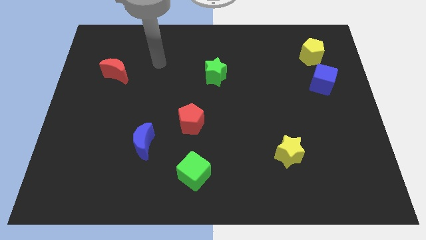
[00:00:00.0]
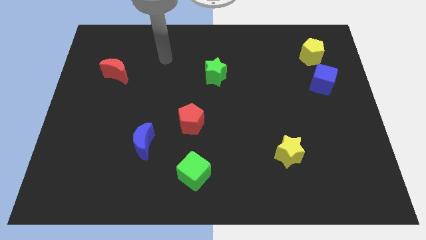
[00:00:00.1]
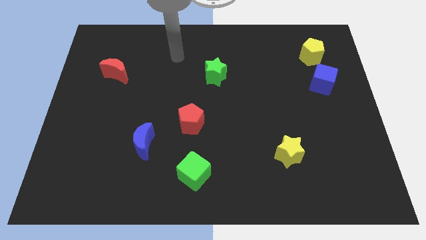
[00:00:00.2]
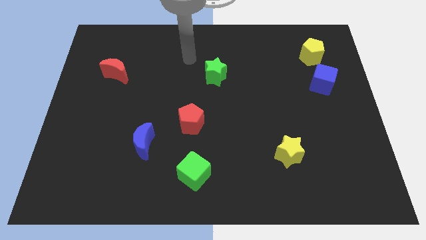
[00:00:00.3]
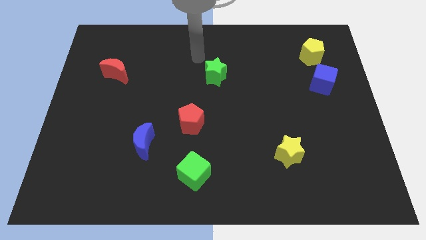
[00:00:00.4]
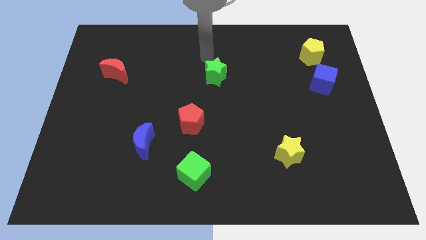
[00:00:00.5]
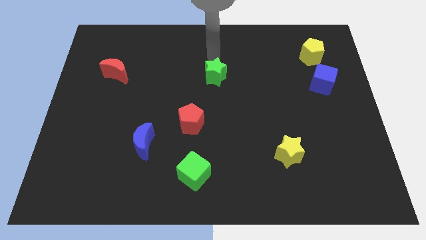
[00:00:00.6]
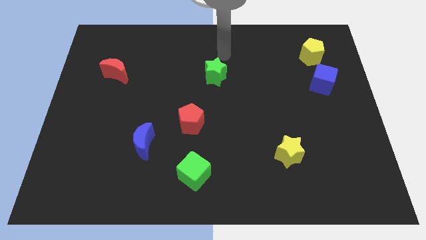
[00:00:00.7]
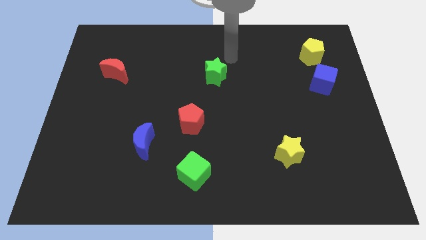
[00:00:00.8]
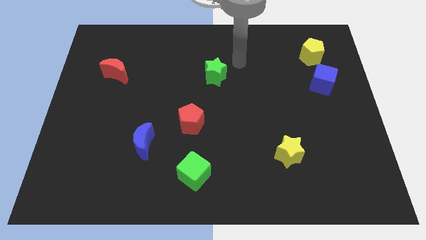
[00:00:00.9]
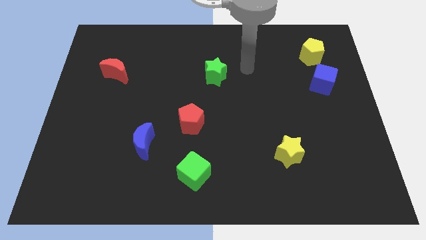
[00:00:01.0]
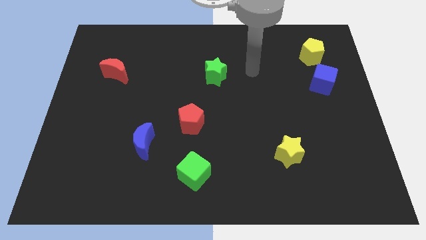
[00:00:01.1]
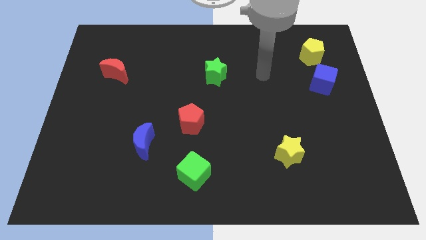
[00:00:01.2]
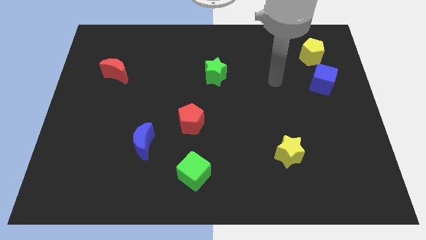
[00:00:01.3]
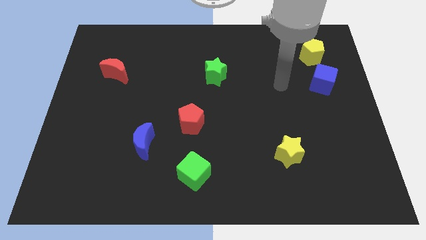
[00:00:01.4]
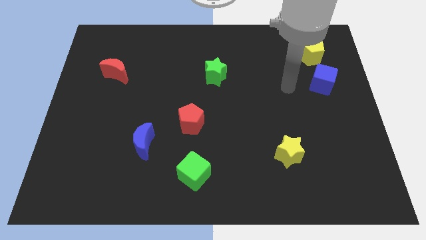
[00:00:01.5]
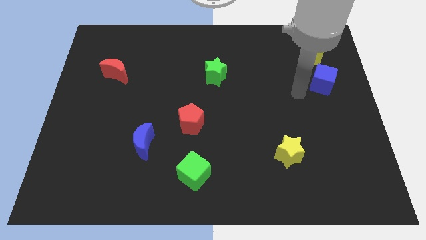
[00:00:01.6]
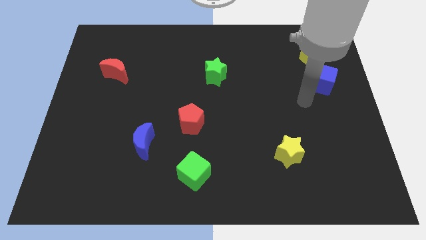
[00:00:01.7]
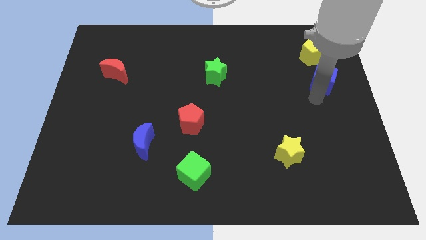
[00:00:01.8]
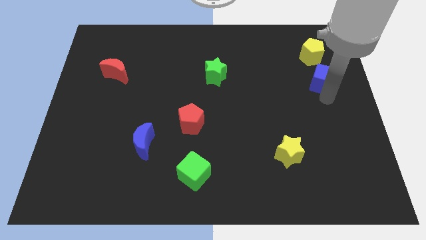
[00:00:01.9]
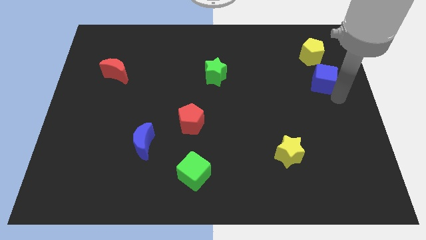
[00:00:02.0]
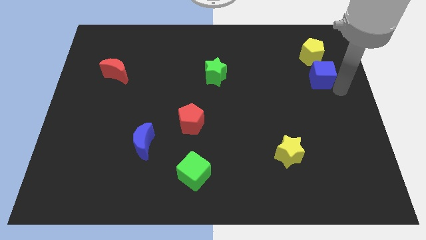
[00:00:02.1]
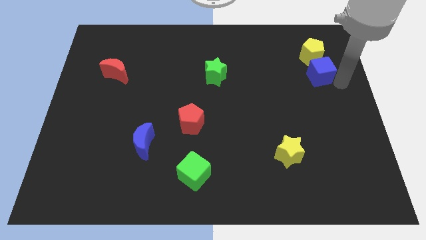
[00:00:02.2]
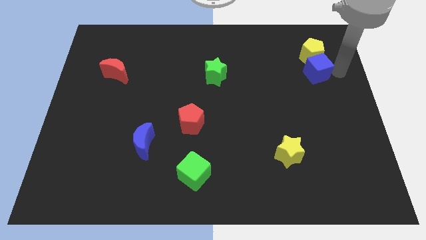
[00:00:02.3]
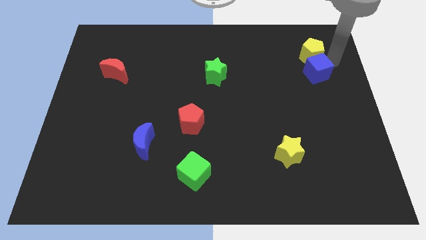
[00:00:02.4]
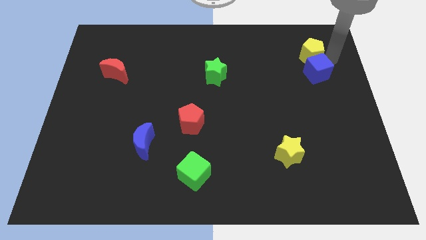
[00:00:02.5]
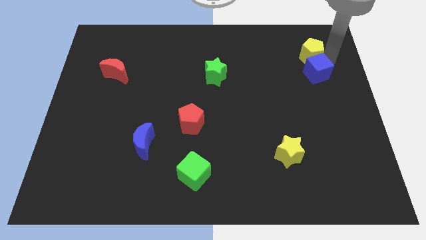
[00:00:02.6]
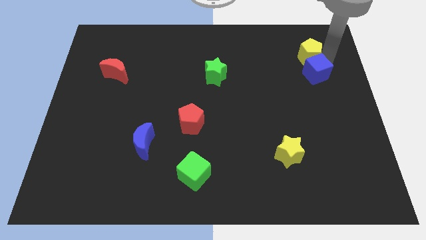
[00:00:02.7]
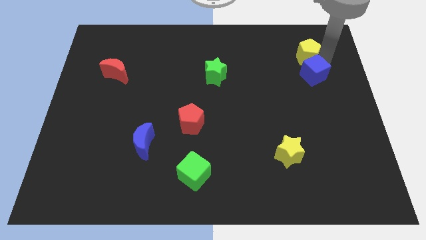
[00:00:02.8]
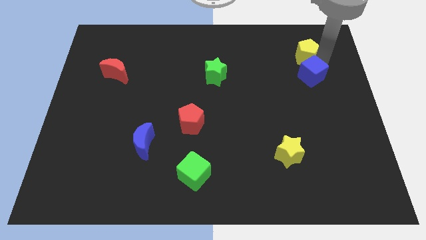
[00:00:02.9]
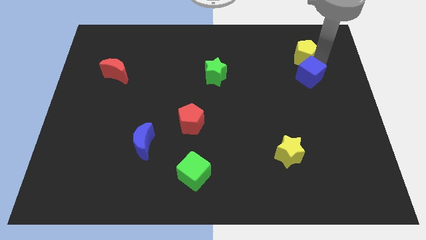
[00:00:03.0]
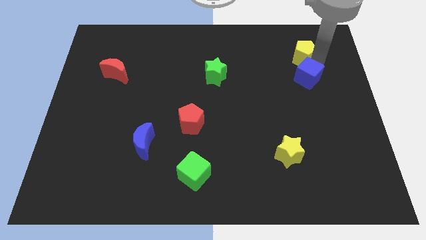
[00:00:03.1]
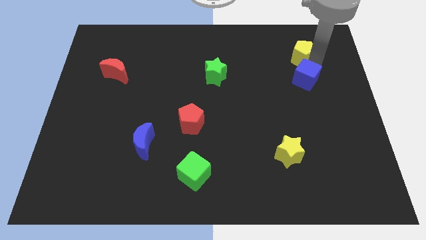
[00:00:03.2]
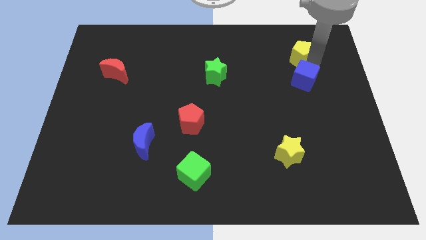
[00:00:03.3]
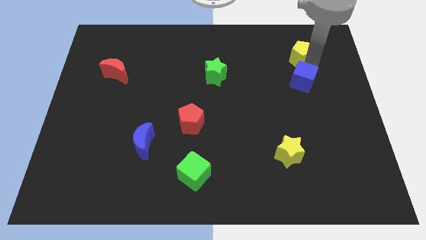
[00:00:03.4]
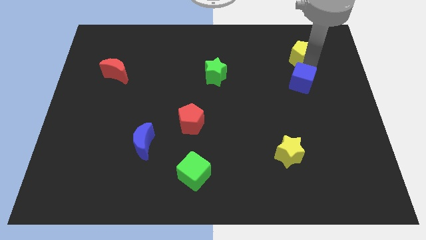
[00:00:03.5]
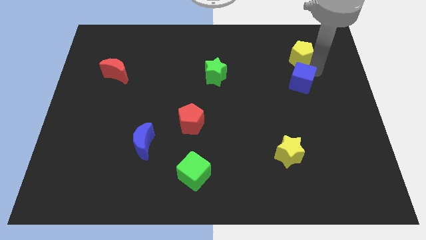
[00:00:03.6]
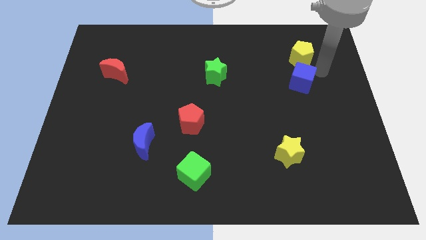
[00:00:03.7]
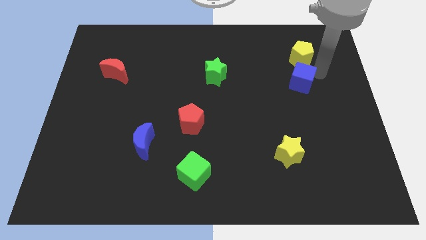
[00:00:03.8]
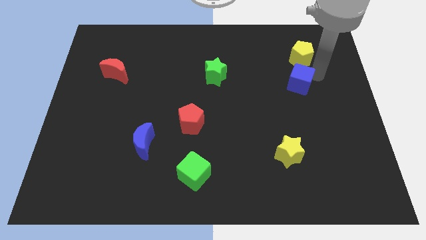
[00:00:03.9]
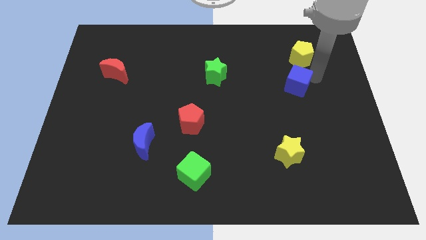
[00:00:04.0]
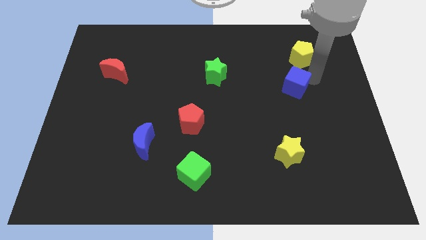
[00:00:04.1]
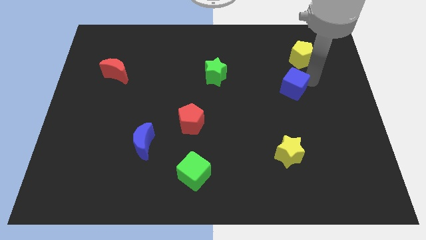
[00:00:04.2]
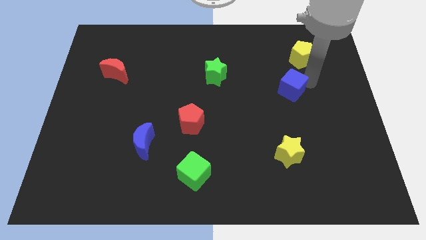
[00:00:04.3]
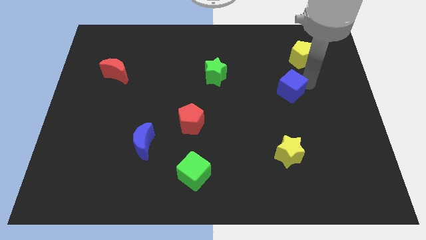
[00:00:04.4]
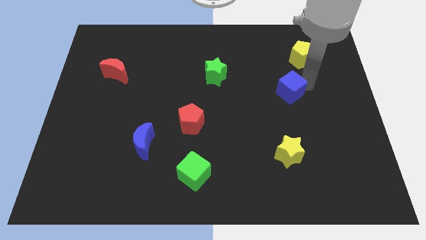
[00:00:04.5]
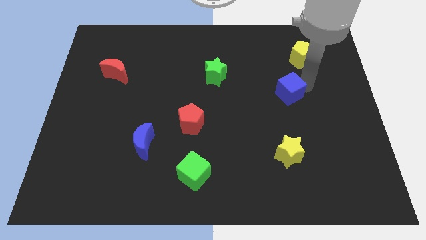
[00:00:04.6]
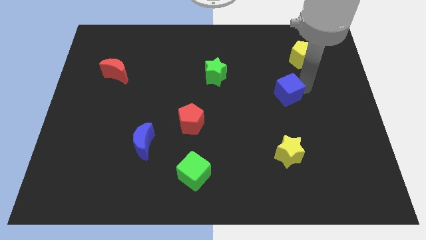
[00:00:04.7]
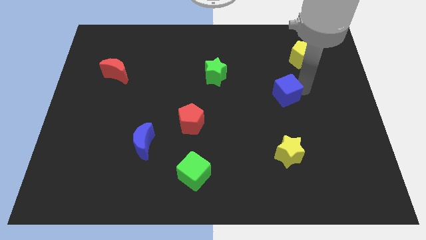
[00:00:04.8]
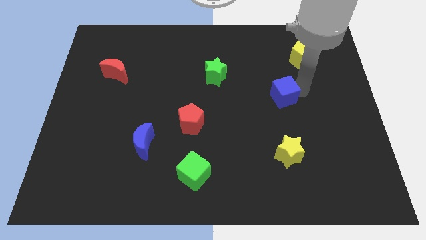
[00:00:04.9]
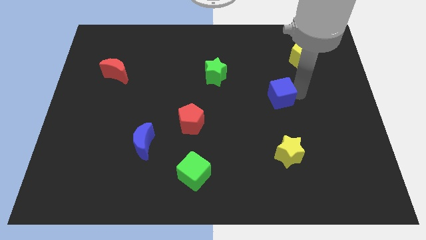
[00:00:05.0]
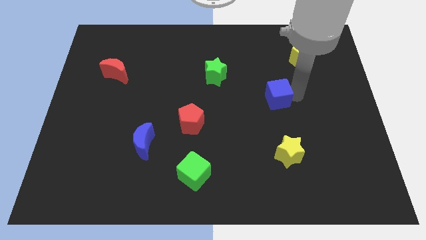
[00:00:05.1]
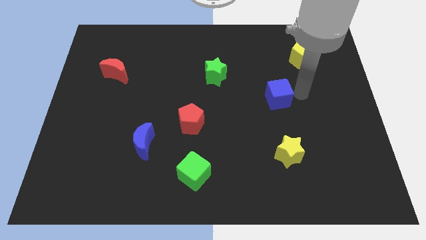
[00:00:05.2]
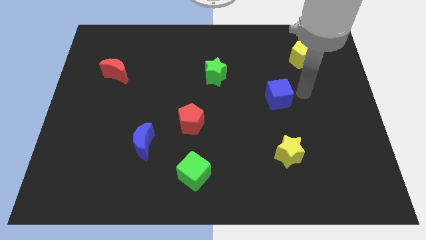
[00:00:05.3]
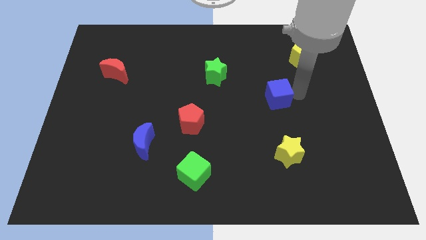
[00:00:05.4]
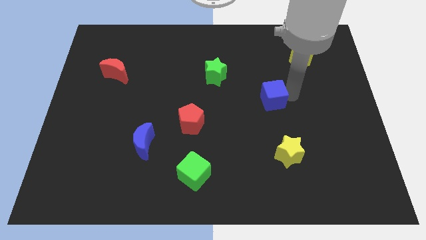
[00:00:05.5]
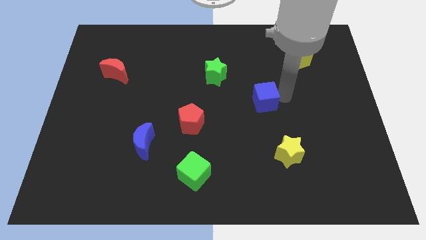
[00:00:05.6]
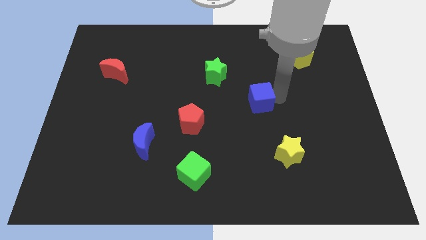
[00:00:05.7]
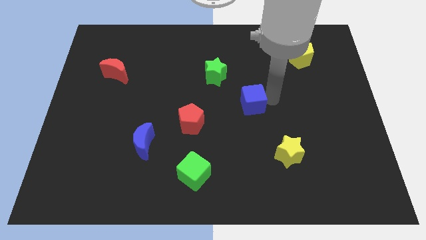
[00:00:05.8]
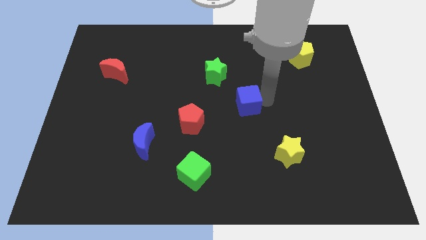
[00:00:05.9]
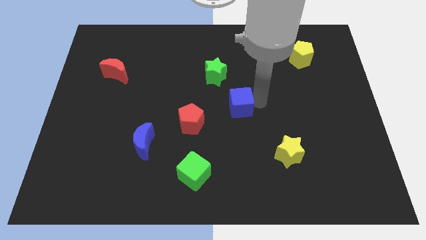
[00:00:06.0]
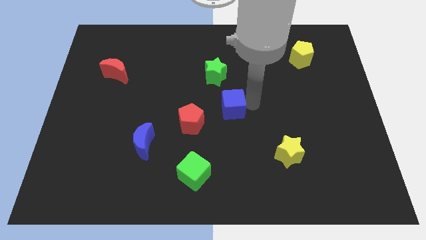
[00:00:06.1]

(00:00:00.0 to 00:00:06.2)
move the blue cube below the green star
